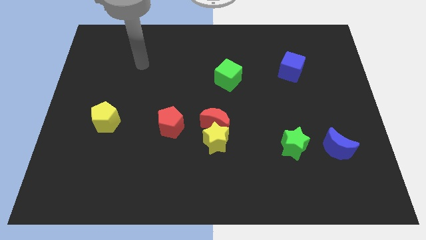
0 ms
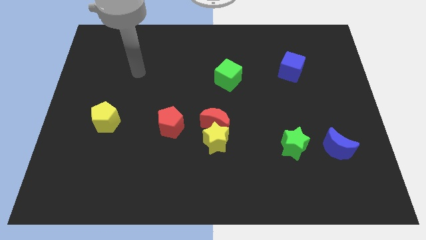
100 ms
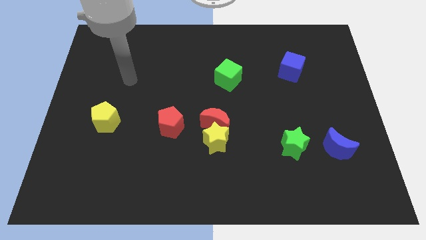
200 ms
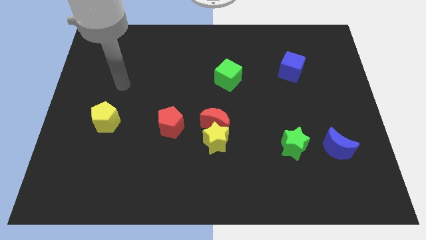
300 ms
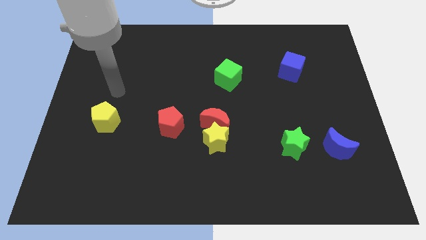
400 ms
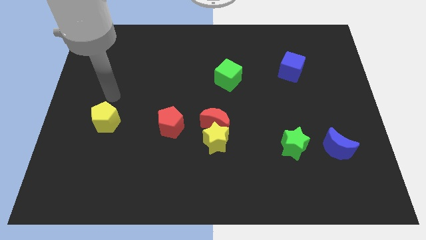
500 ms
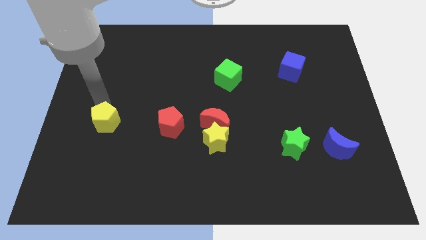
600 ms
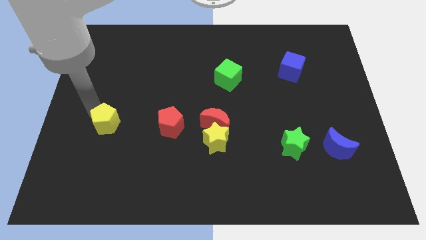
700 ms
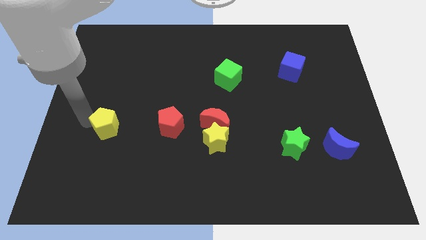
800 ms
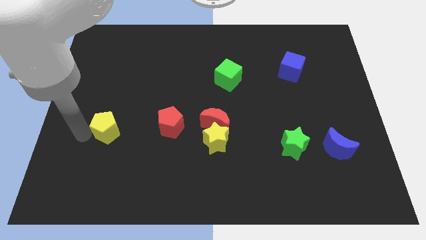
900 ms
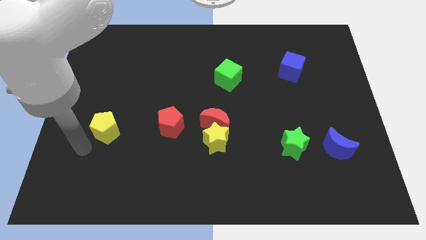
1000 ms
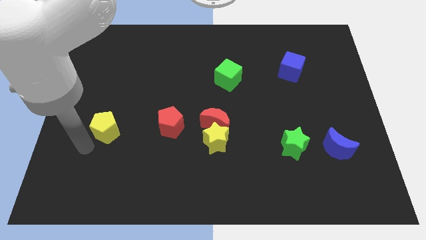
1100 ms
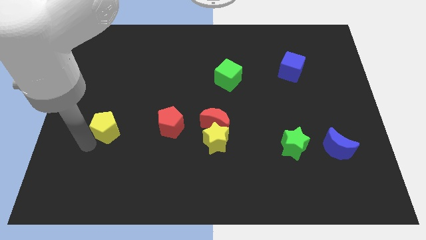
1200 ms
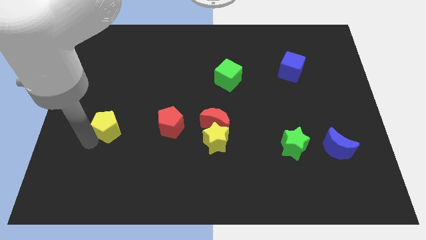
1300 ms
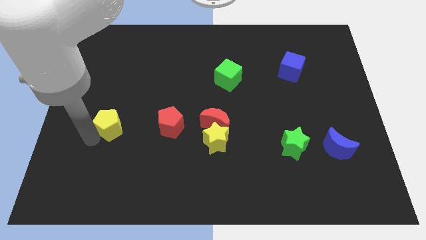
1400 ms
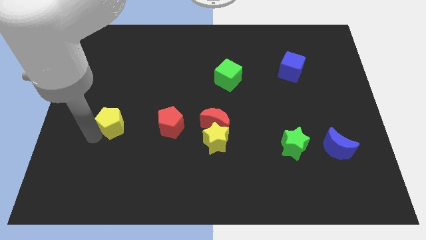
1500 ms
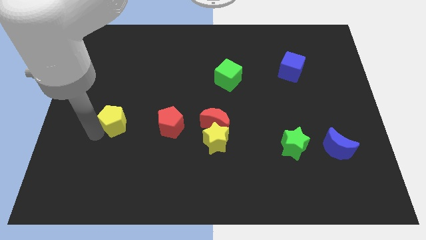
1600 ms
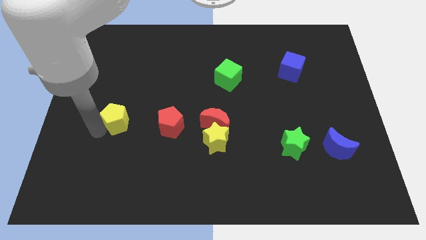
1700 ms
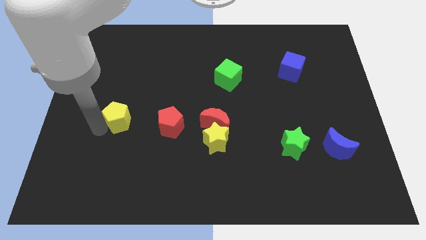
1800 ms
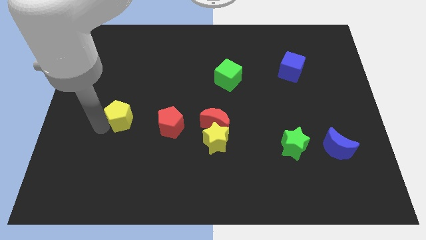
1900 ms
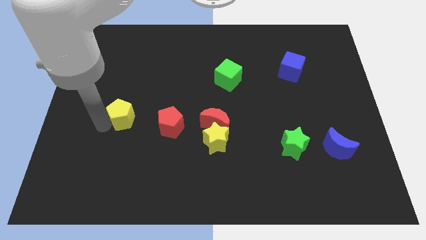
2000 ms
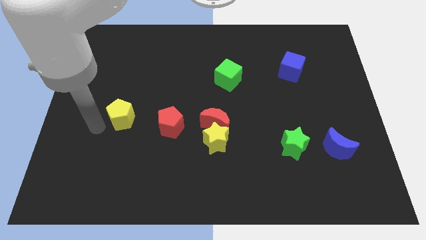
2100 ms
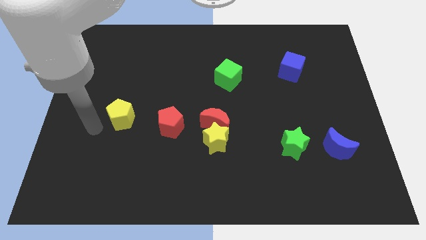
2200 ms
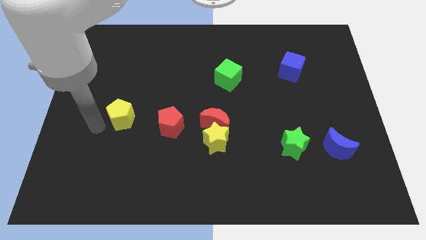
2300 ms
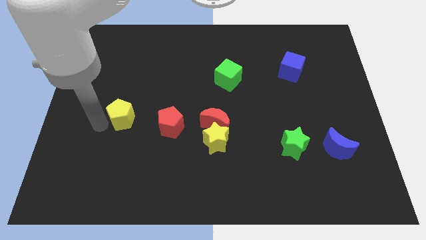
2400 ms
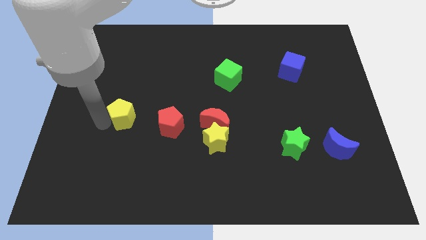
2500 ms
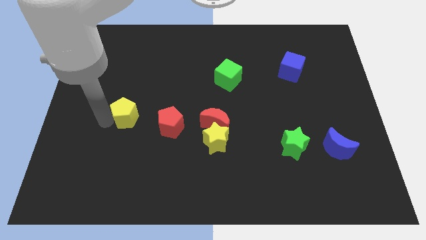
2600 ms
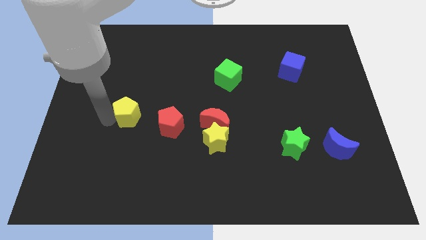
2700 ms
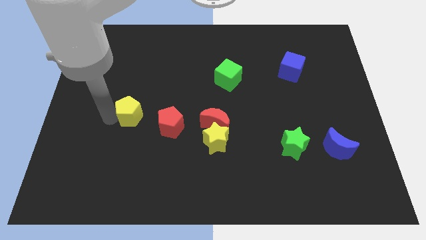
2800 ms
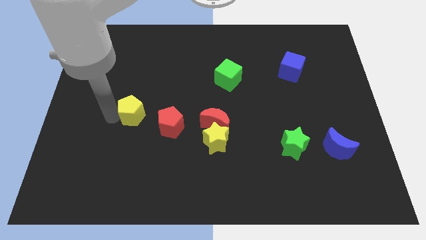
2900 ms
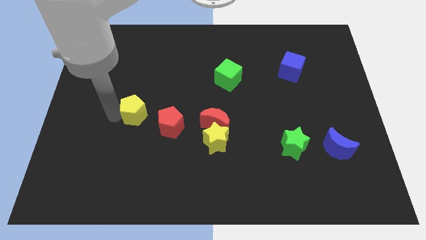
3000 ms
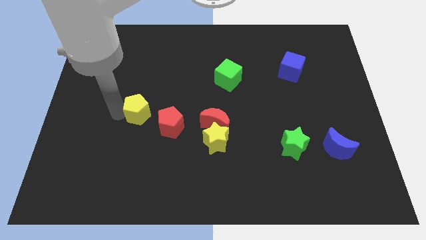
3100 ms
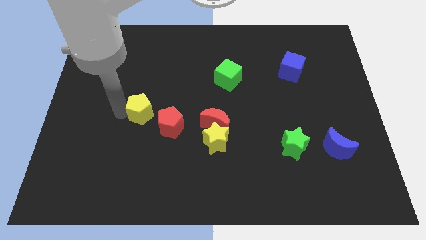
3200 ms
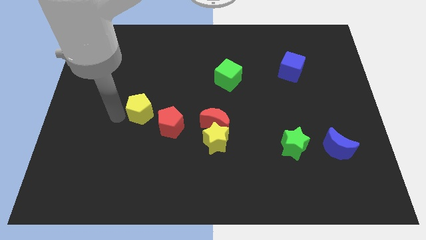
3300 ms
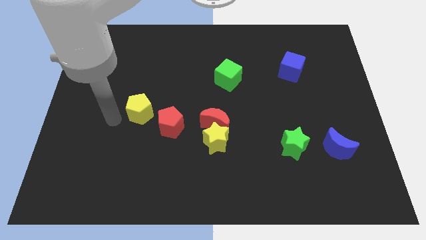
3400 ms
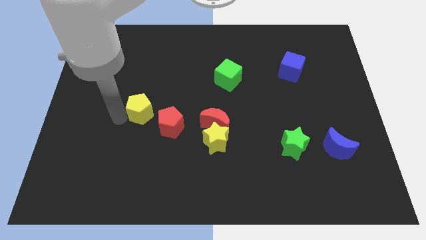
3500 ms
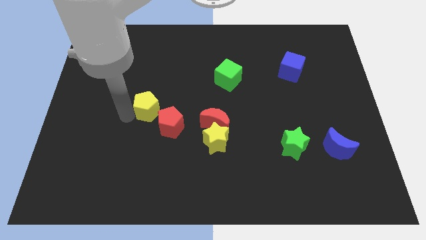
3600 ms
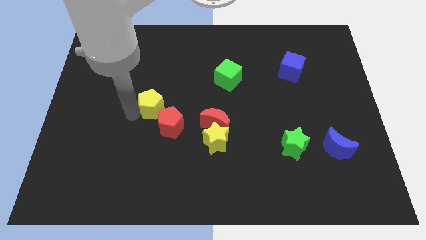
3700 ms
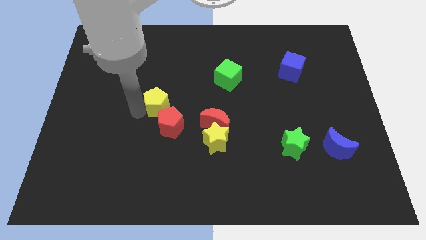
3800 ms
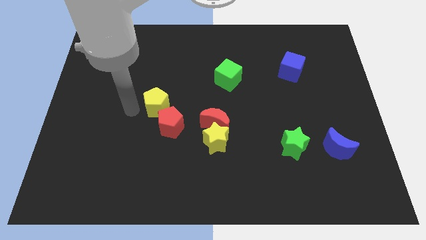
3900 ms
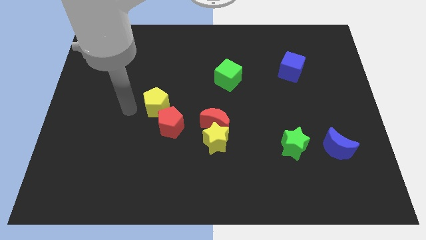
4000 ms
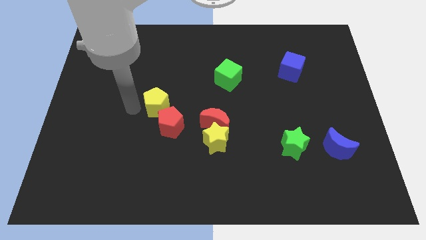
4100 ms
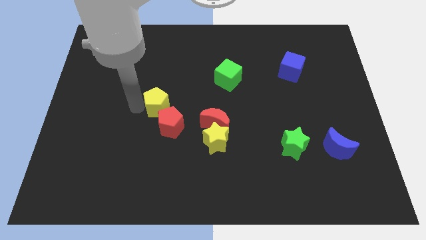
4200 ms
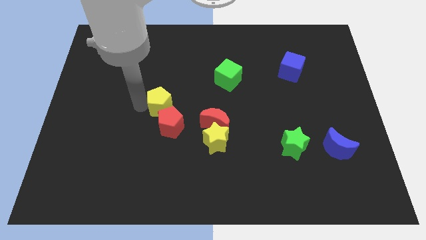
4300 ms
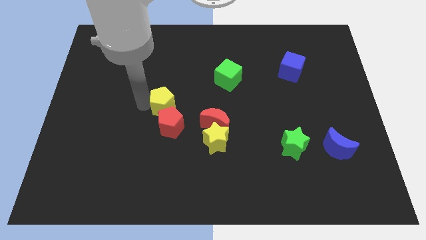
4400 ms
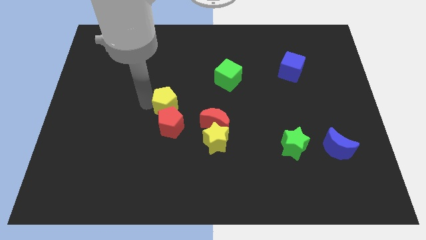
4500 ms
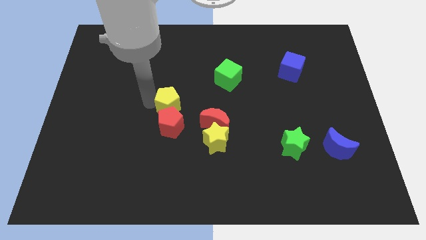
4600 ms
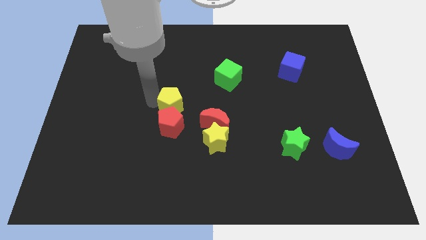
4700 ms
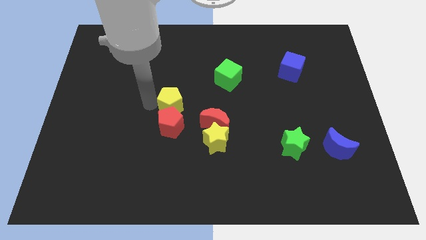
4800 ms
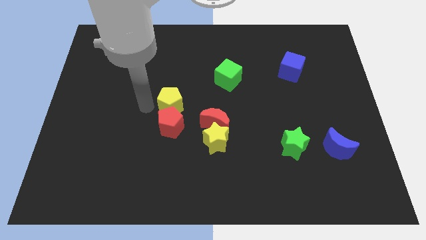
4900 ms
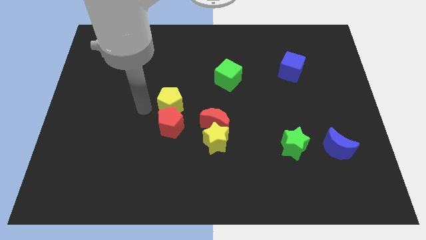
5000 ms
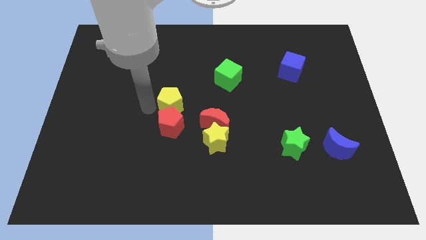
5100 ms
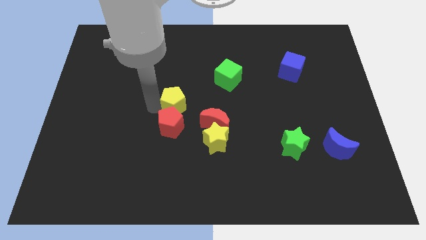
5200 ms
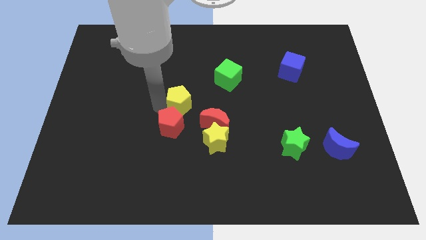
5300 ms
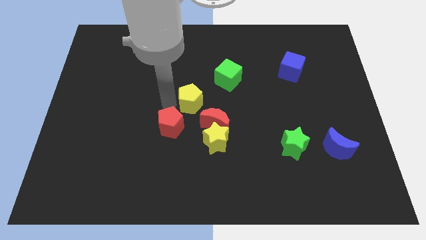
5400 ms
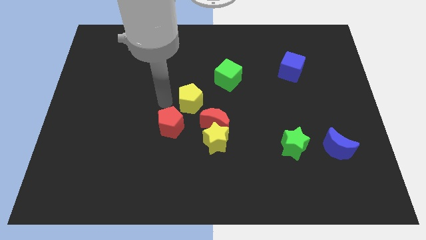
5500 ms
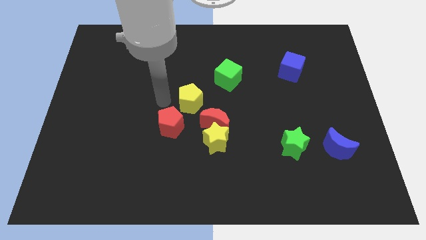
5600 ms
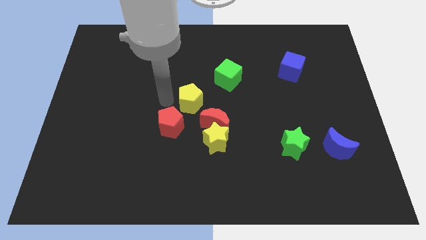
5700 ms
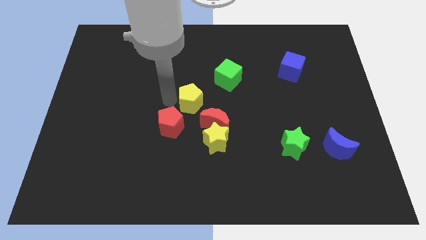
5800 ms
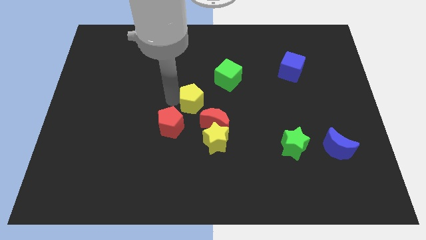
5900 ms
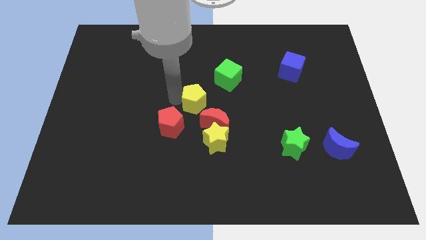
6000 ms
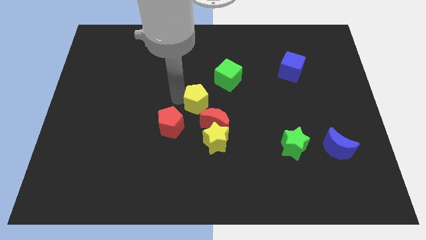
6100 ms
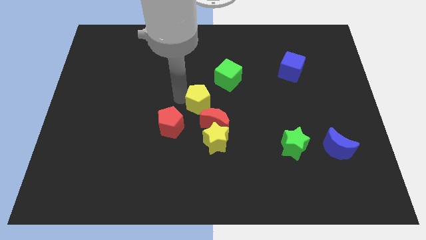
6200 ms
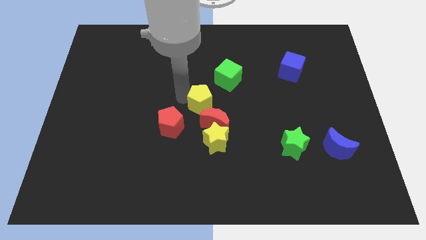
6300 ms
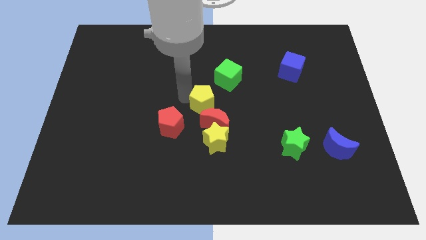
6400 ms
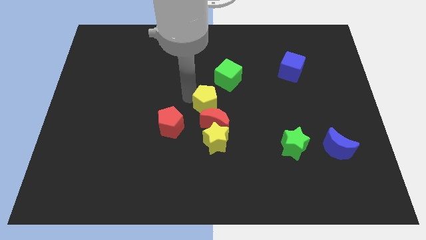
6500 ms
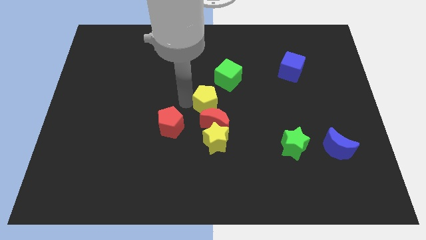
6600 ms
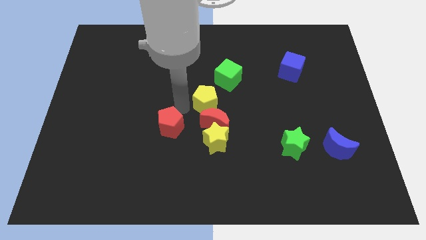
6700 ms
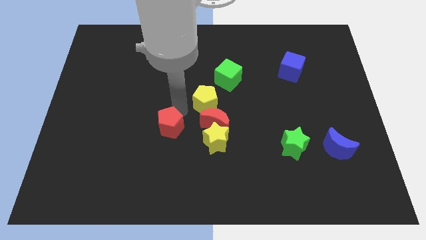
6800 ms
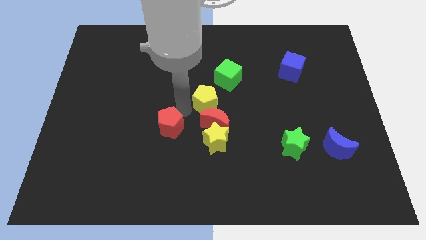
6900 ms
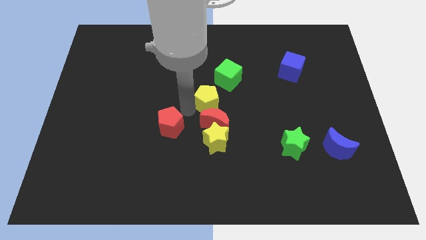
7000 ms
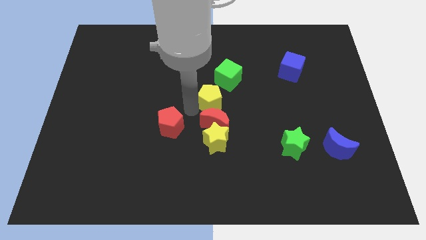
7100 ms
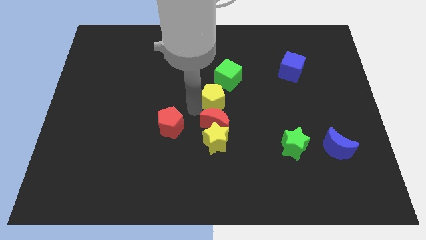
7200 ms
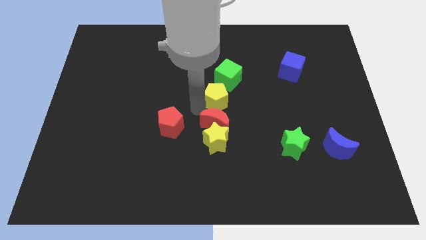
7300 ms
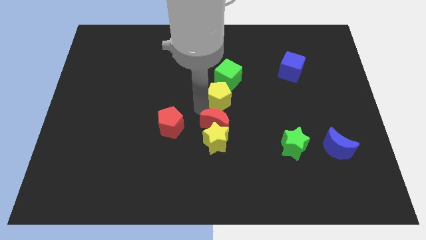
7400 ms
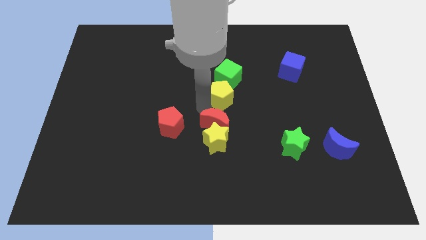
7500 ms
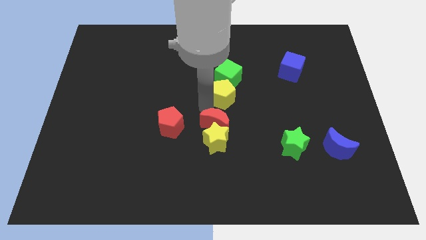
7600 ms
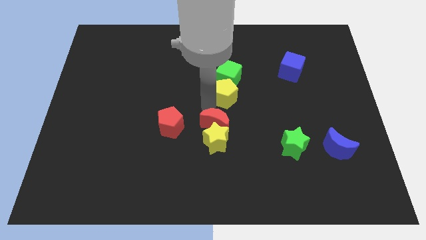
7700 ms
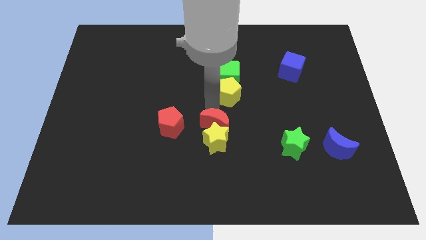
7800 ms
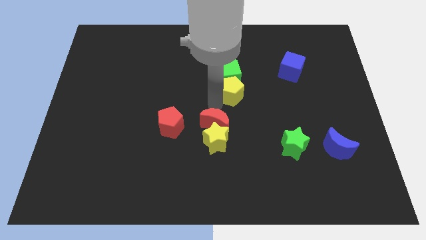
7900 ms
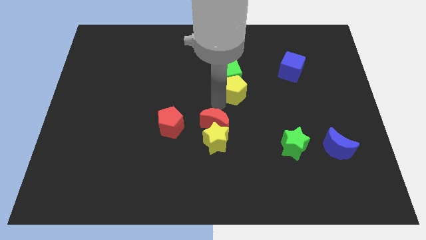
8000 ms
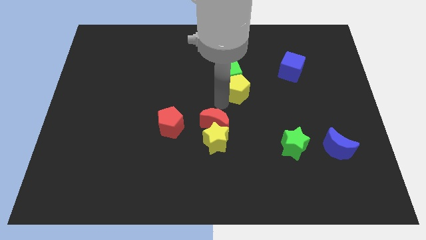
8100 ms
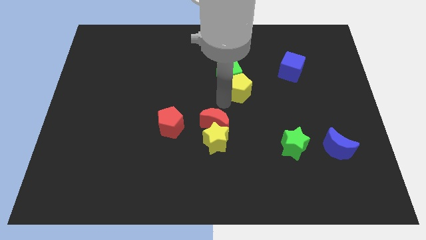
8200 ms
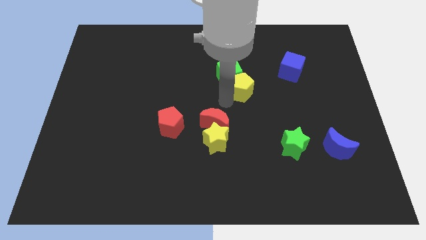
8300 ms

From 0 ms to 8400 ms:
slide the yellow pentagon just right of the green cube
